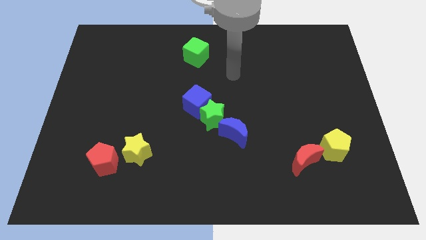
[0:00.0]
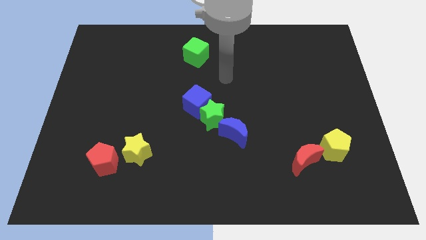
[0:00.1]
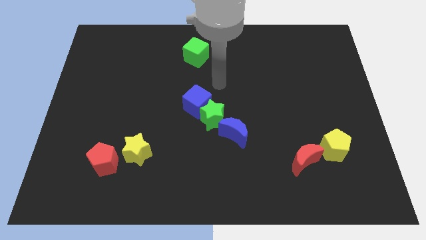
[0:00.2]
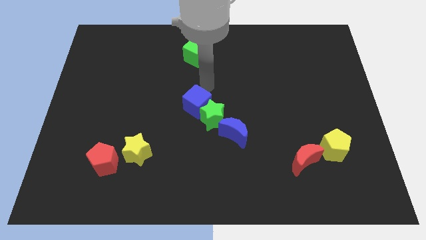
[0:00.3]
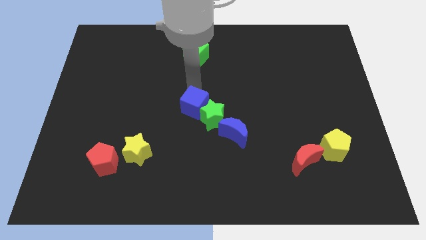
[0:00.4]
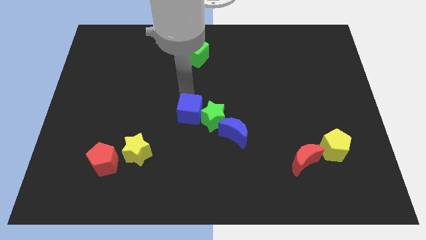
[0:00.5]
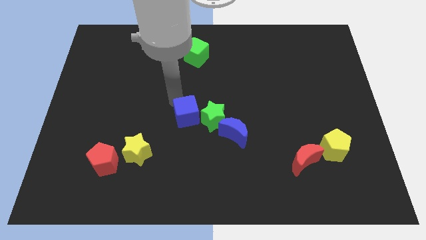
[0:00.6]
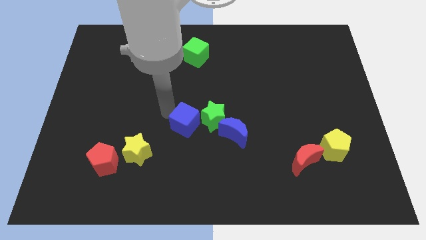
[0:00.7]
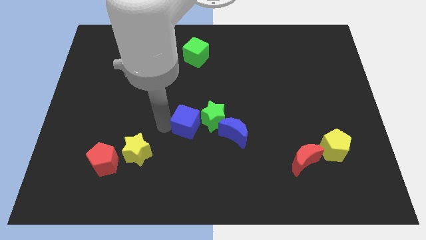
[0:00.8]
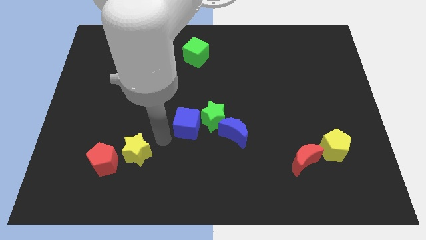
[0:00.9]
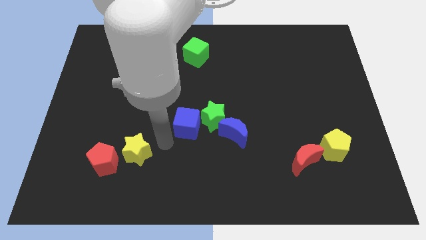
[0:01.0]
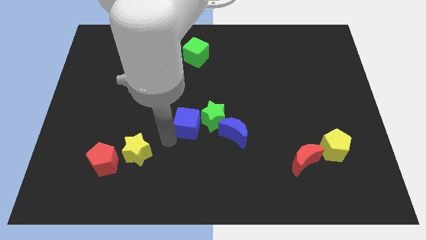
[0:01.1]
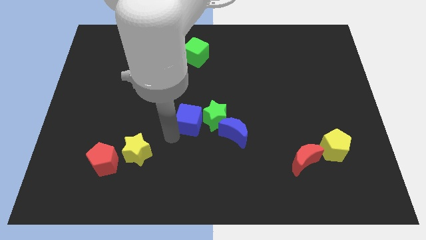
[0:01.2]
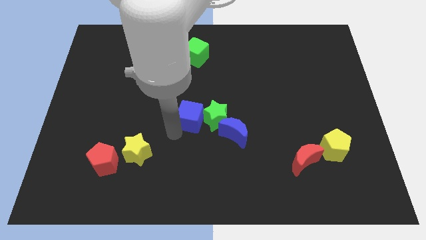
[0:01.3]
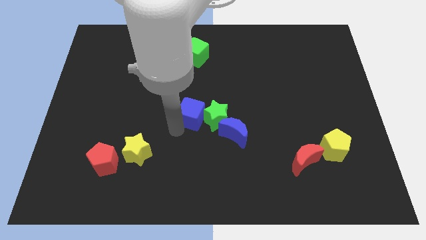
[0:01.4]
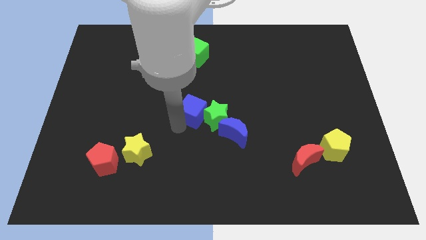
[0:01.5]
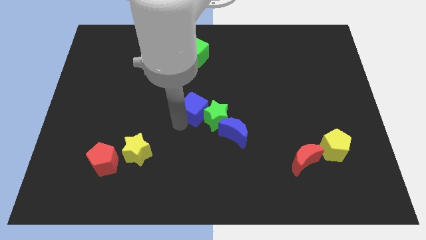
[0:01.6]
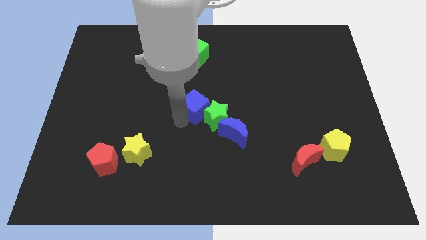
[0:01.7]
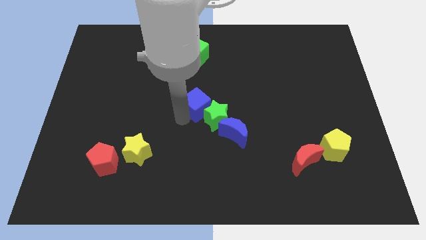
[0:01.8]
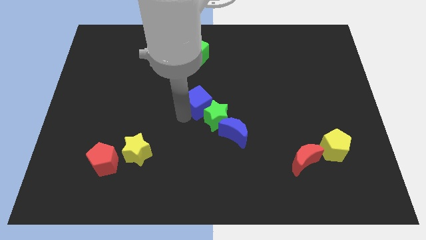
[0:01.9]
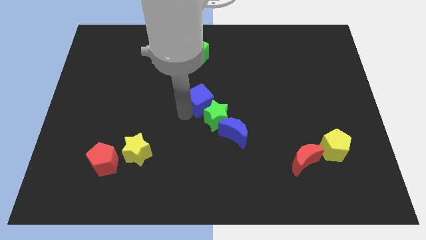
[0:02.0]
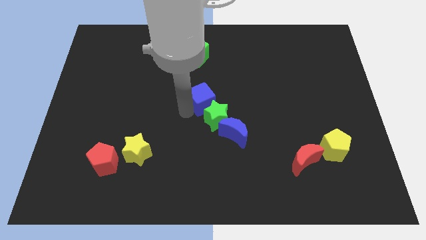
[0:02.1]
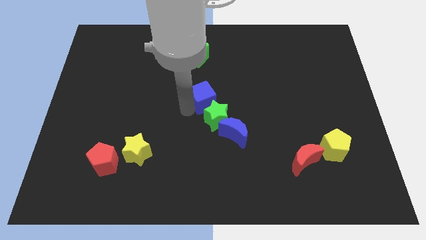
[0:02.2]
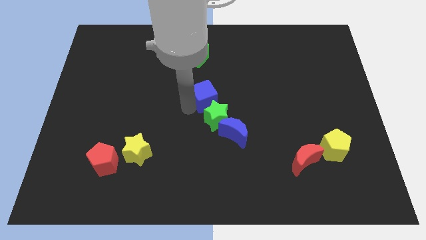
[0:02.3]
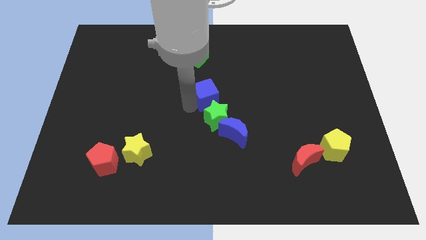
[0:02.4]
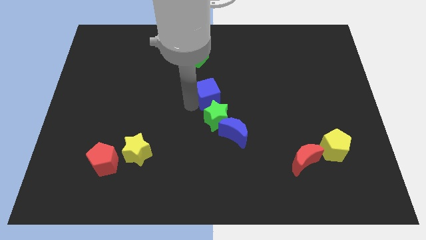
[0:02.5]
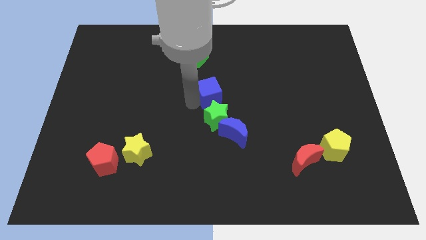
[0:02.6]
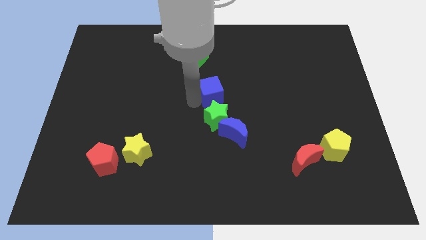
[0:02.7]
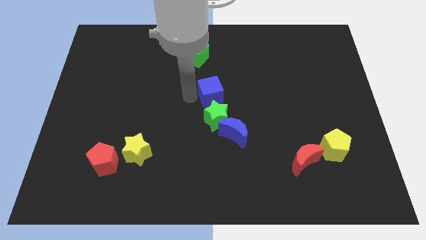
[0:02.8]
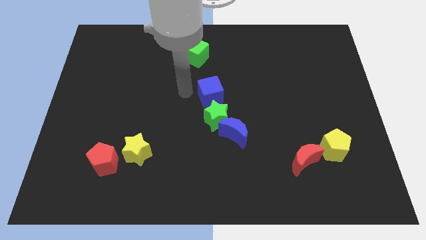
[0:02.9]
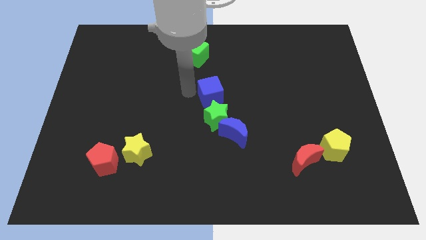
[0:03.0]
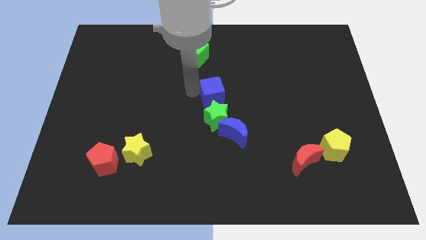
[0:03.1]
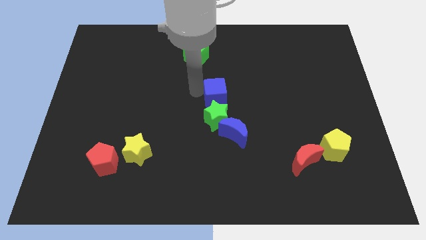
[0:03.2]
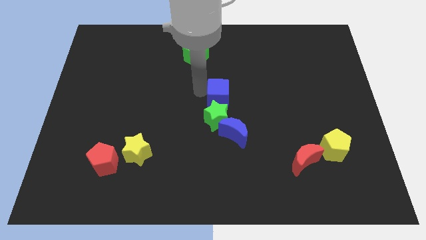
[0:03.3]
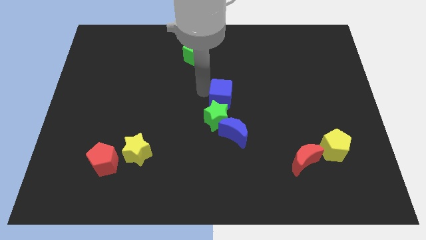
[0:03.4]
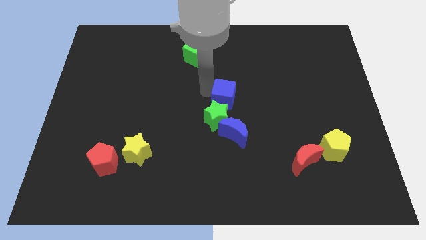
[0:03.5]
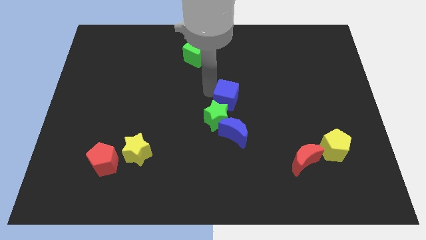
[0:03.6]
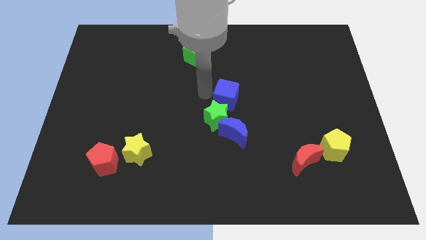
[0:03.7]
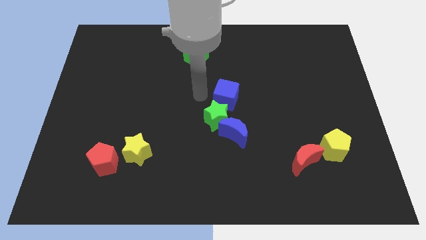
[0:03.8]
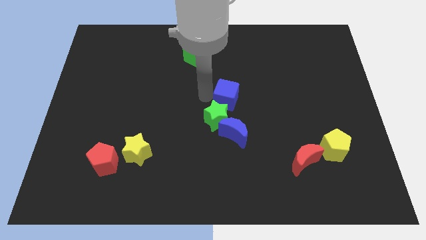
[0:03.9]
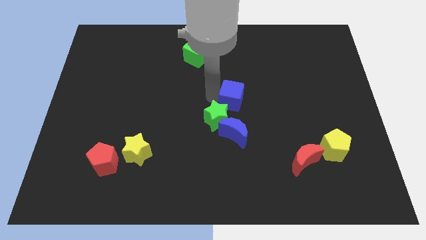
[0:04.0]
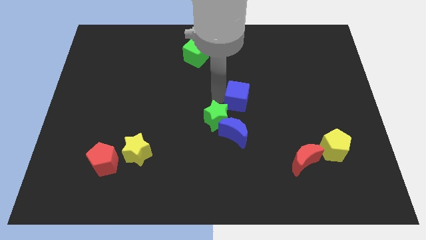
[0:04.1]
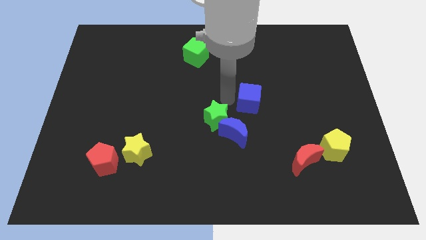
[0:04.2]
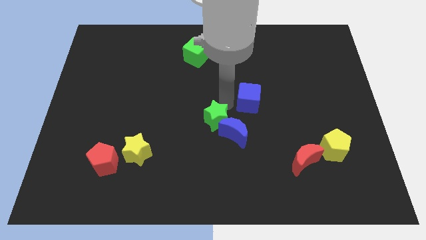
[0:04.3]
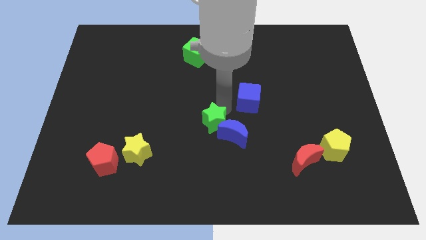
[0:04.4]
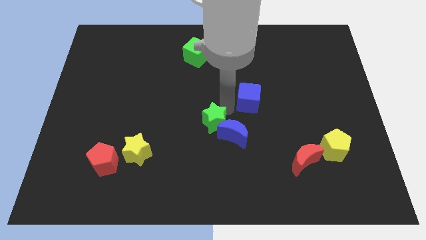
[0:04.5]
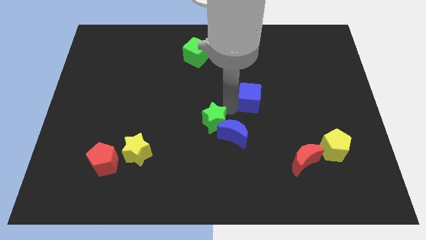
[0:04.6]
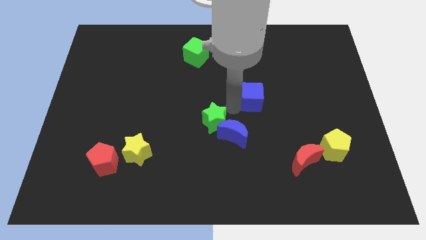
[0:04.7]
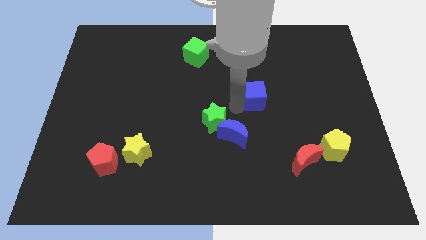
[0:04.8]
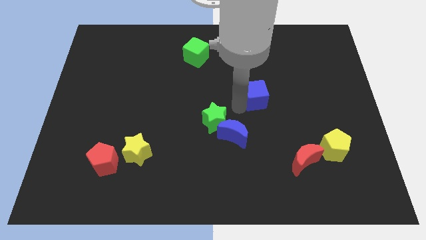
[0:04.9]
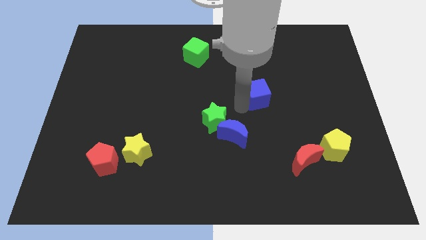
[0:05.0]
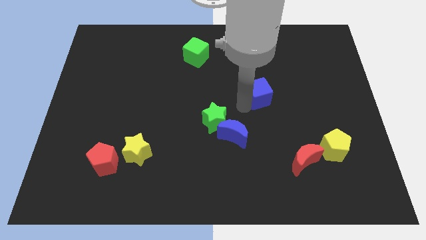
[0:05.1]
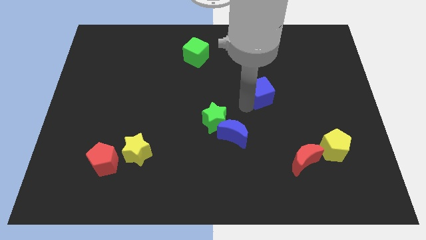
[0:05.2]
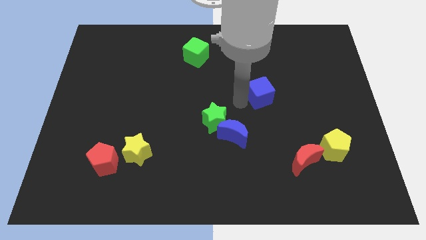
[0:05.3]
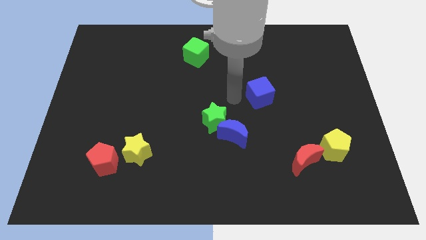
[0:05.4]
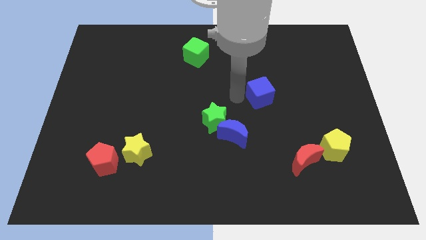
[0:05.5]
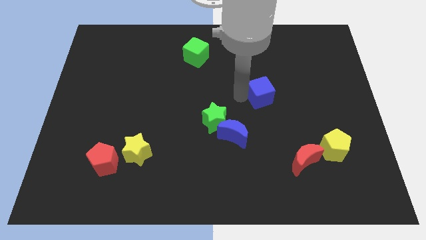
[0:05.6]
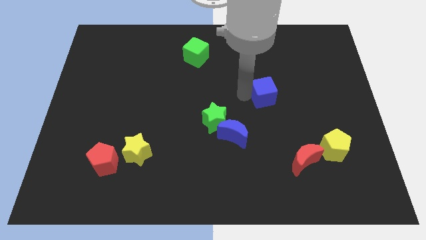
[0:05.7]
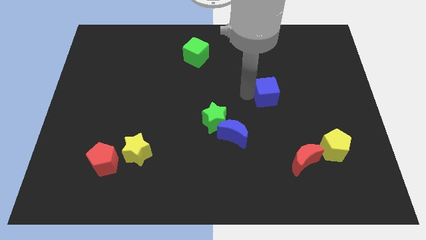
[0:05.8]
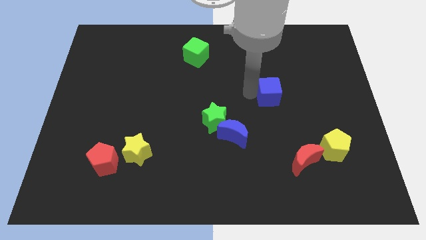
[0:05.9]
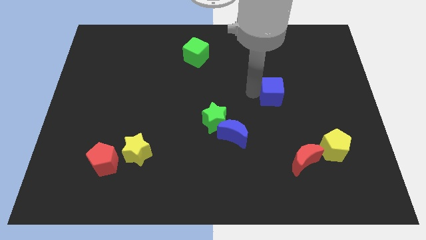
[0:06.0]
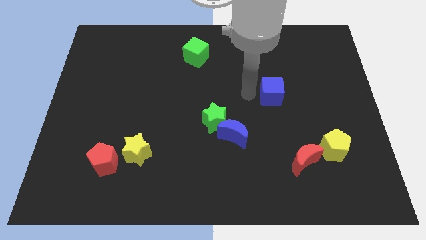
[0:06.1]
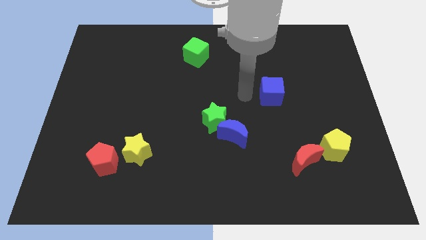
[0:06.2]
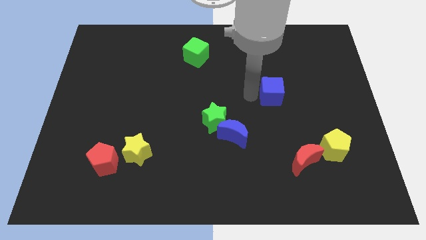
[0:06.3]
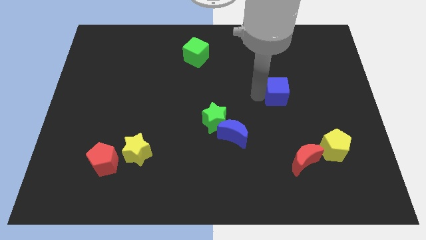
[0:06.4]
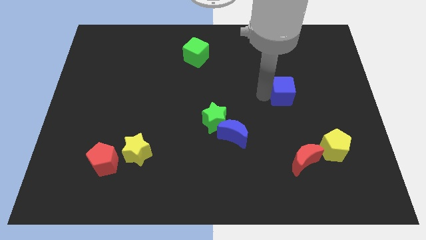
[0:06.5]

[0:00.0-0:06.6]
slide the blue cube to the right

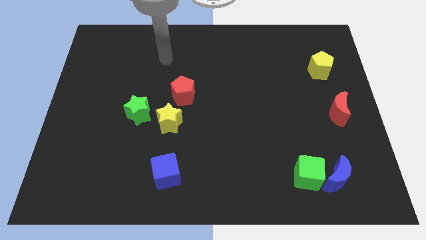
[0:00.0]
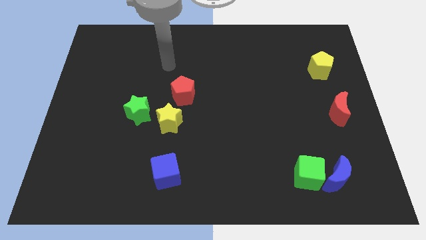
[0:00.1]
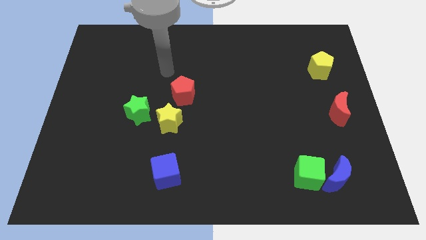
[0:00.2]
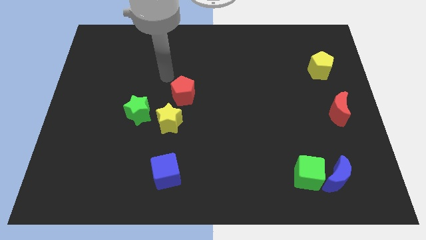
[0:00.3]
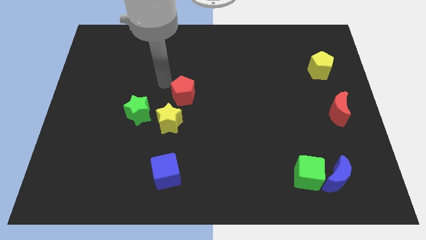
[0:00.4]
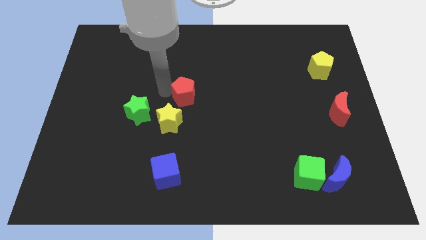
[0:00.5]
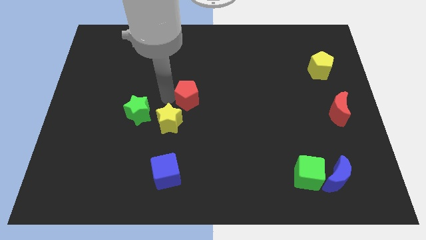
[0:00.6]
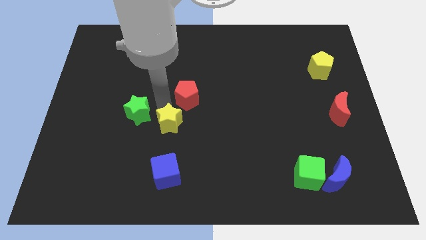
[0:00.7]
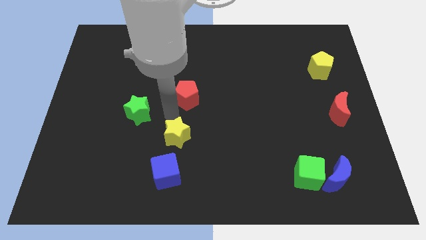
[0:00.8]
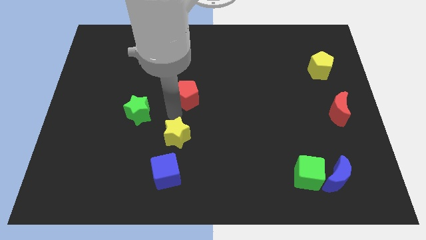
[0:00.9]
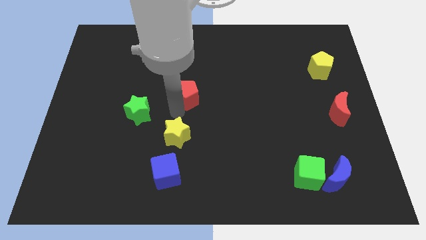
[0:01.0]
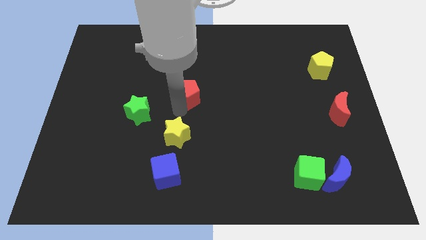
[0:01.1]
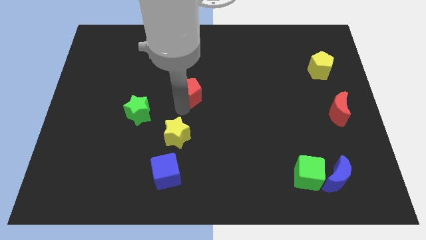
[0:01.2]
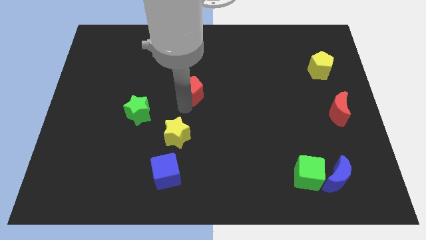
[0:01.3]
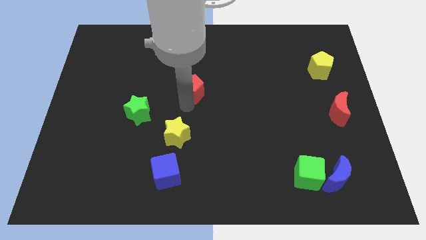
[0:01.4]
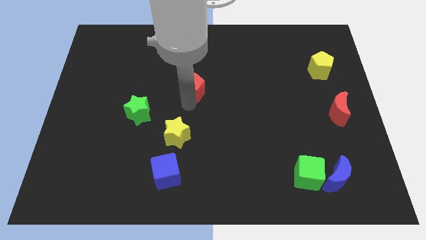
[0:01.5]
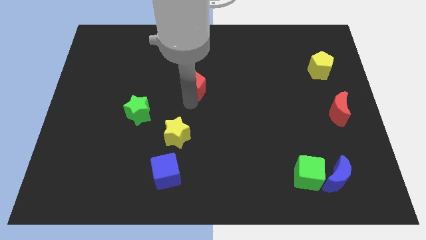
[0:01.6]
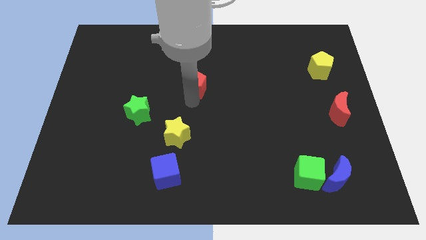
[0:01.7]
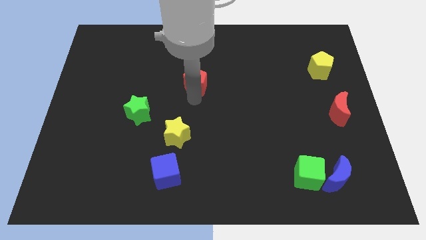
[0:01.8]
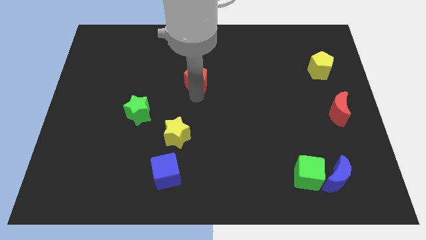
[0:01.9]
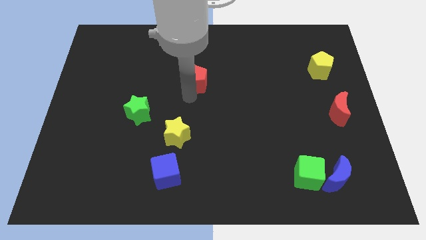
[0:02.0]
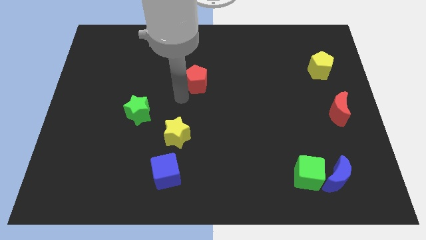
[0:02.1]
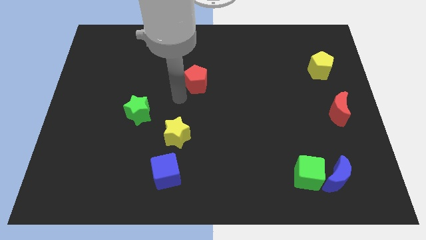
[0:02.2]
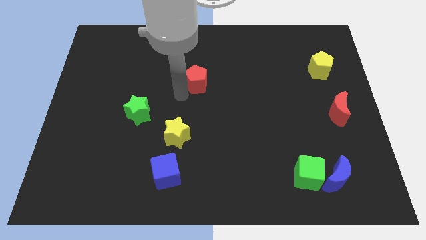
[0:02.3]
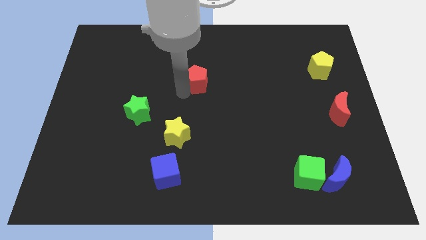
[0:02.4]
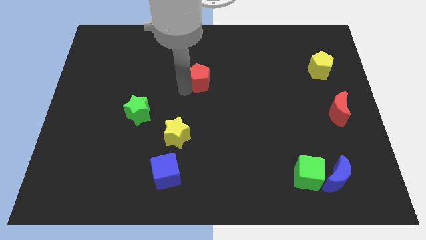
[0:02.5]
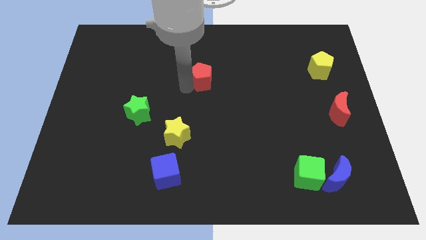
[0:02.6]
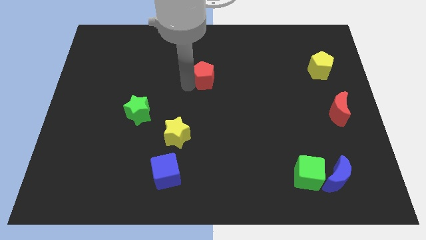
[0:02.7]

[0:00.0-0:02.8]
push the red pentagon up and right diagonally slightly
